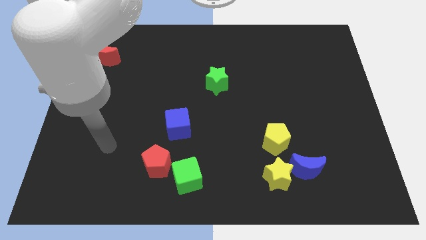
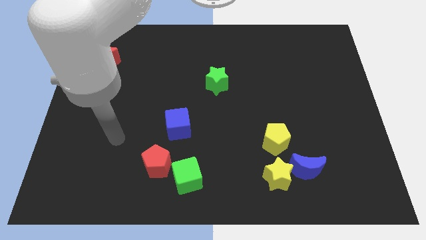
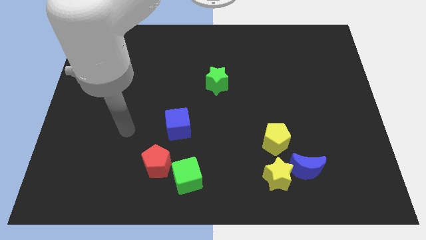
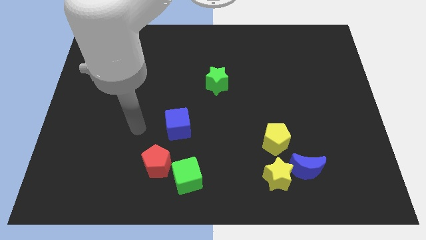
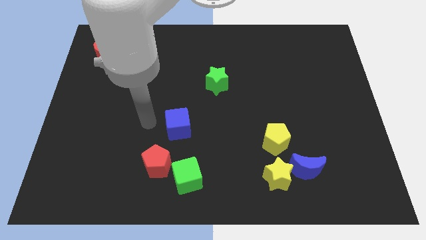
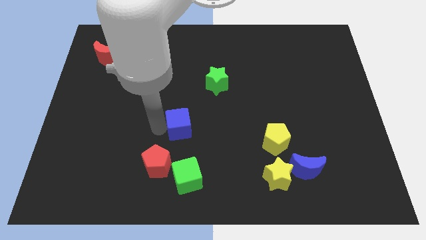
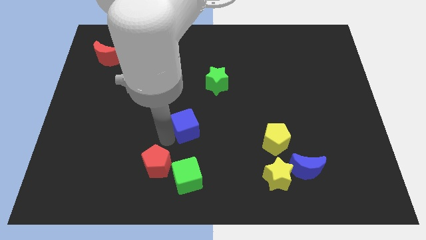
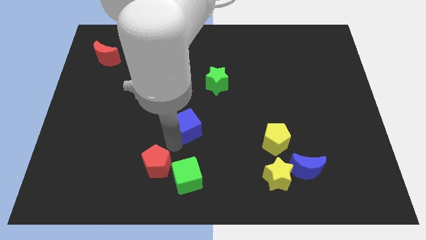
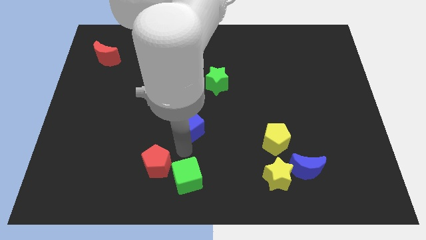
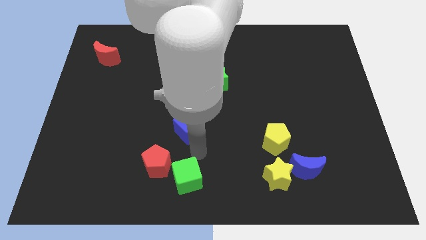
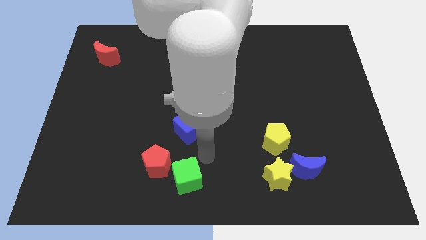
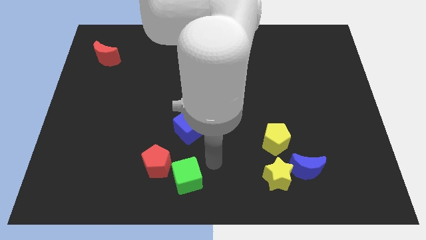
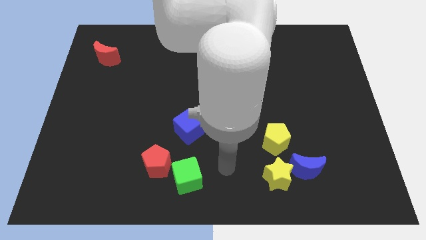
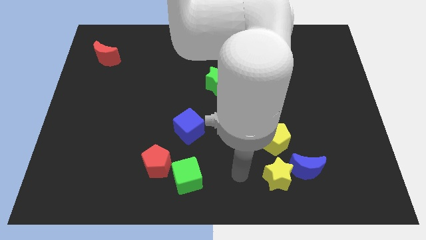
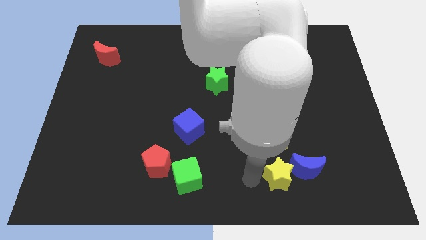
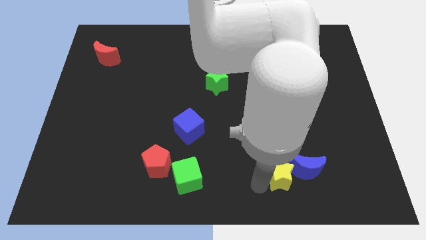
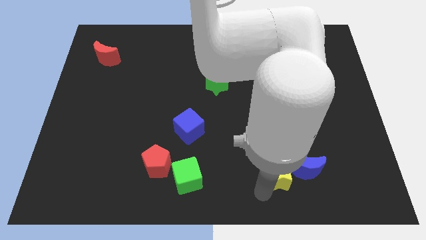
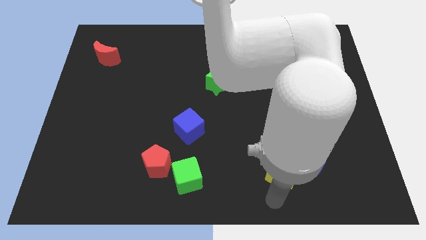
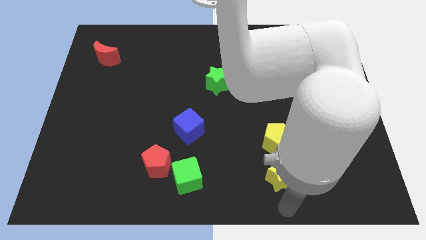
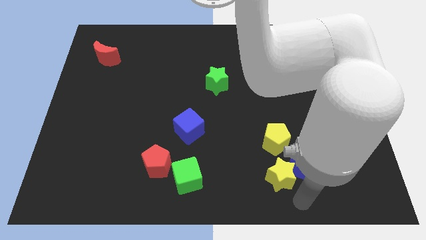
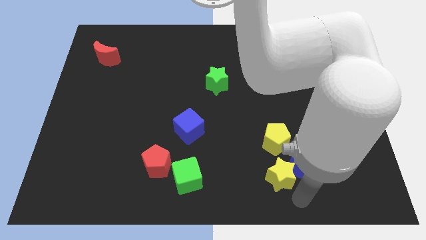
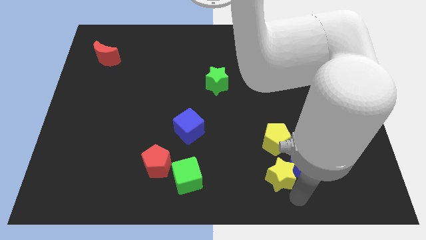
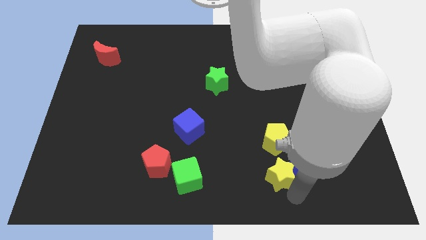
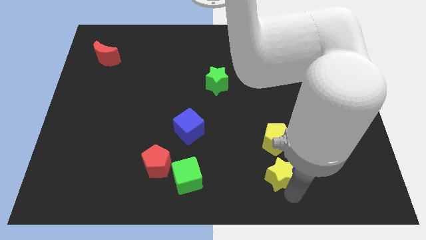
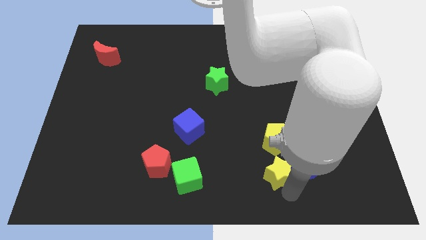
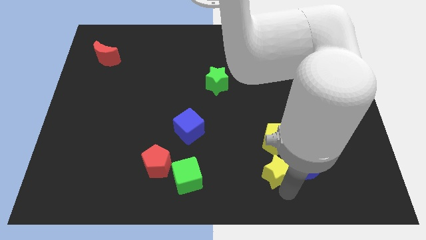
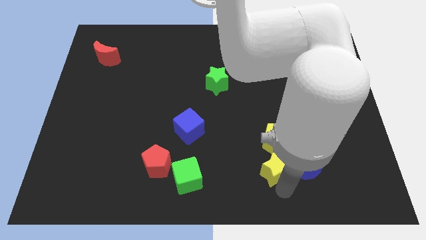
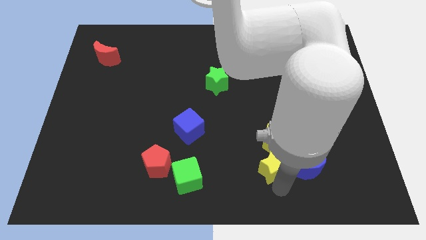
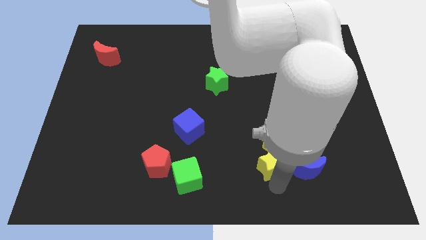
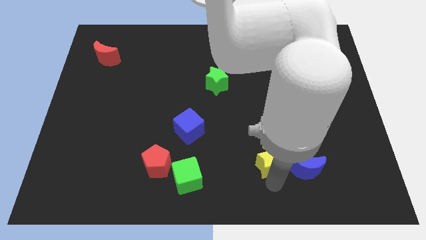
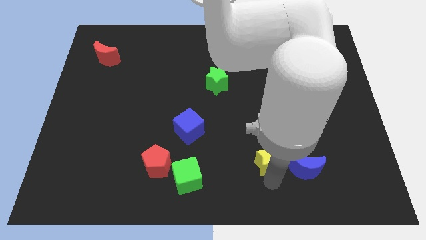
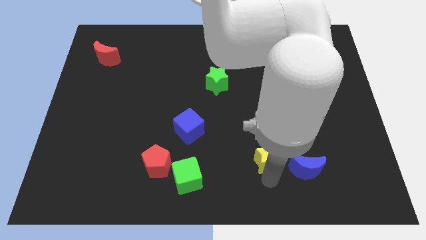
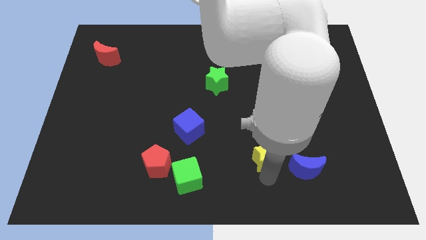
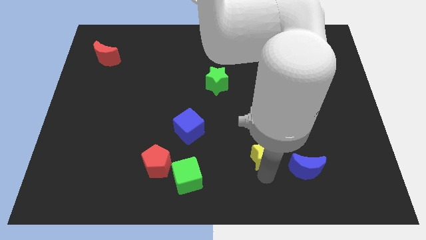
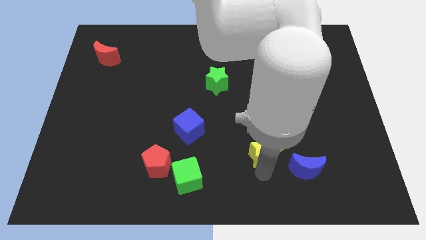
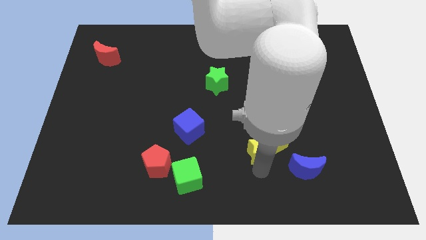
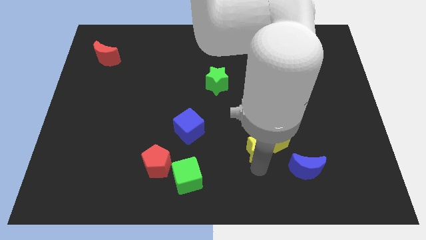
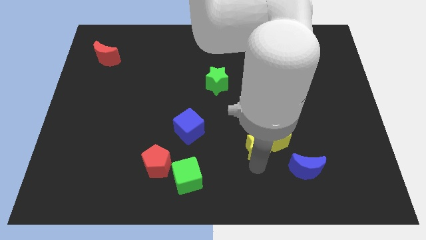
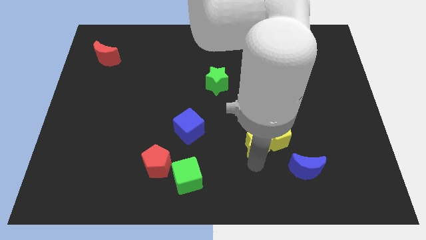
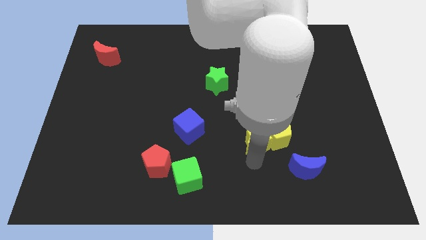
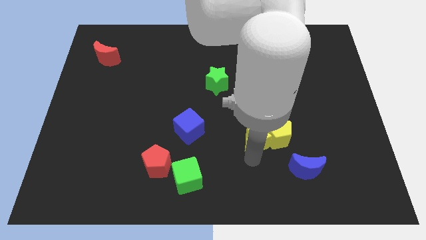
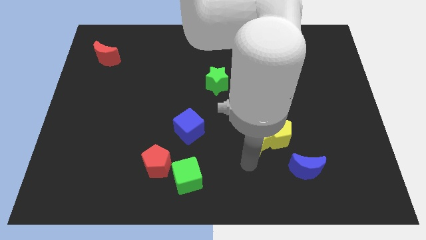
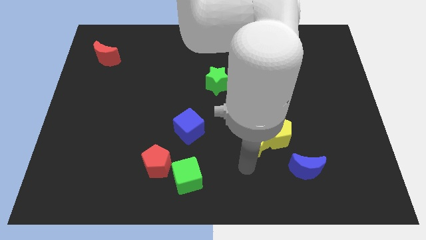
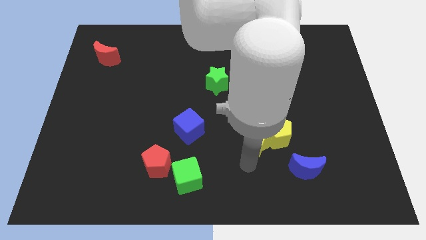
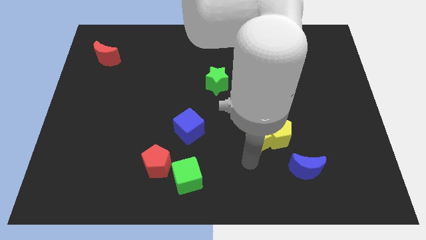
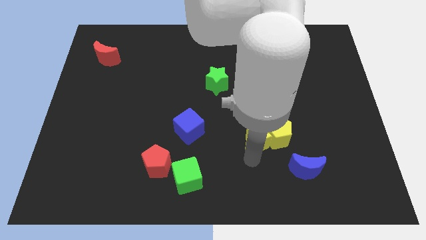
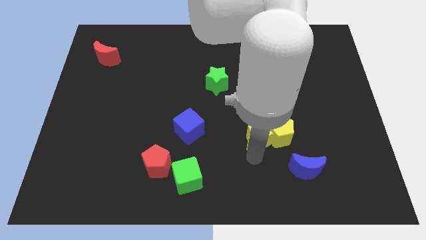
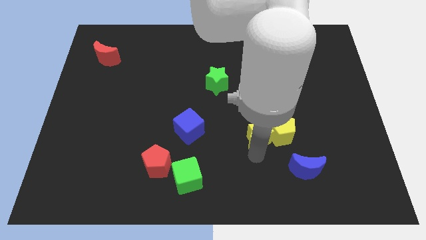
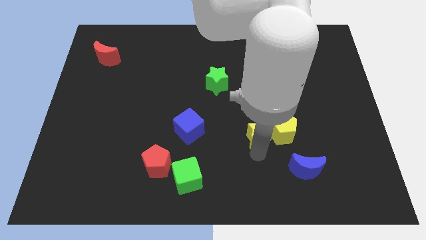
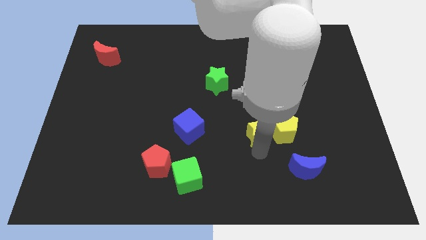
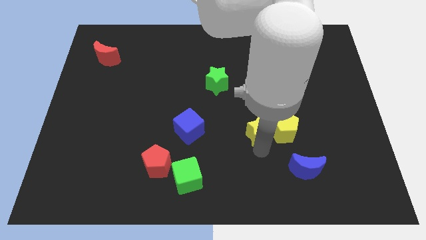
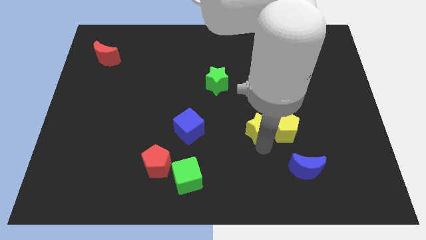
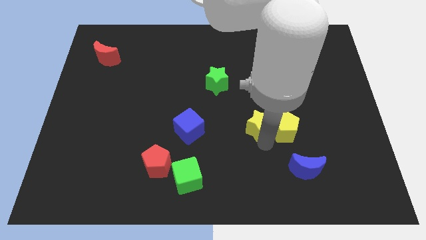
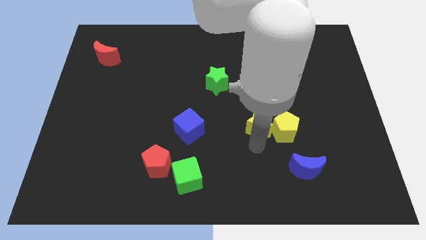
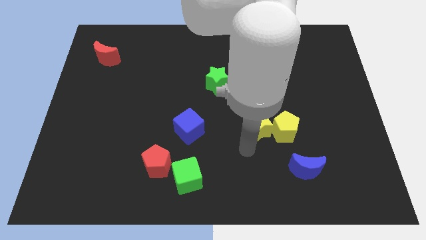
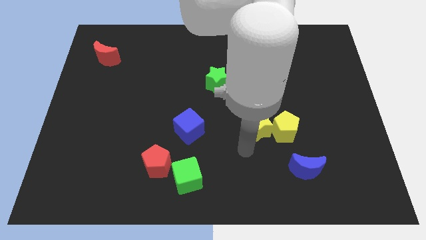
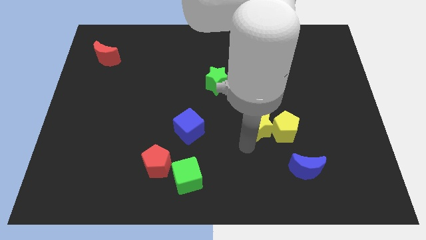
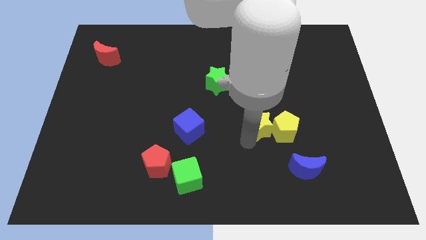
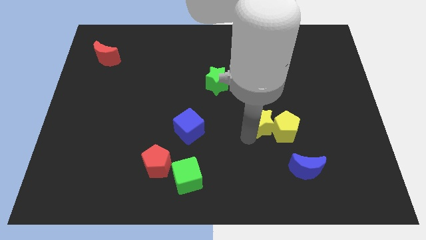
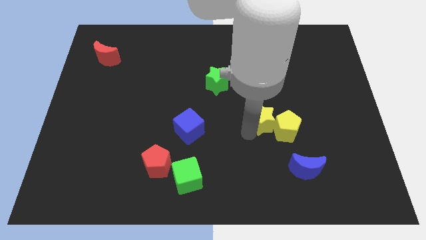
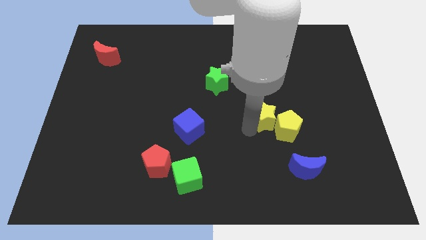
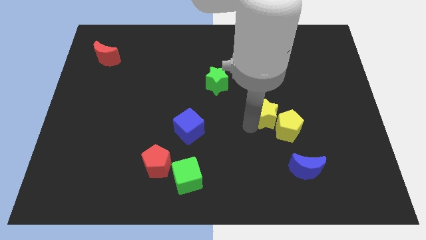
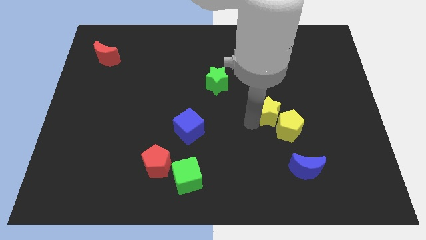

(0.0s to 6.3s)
slide the yellow star to the top of the yellow pentagon

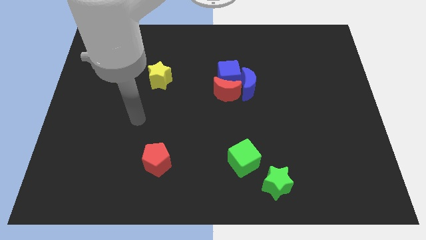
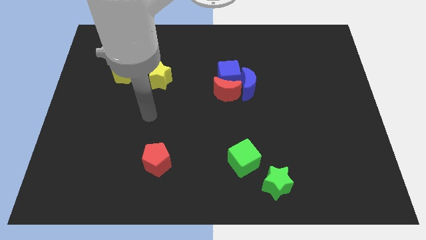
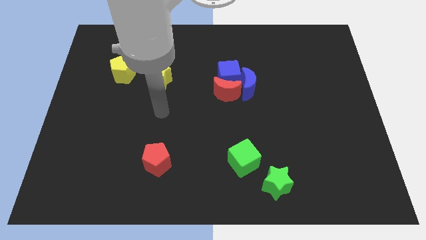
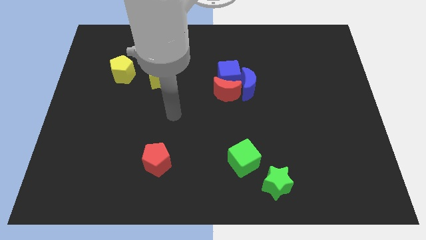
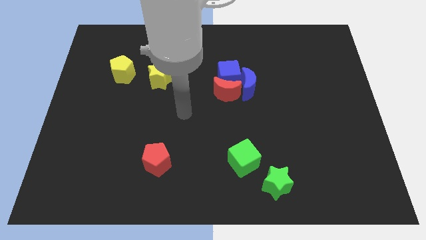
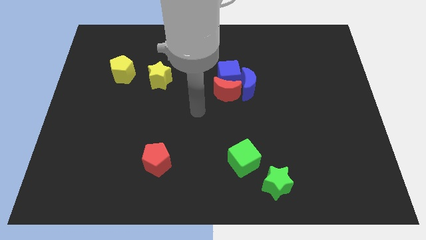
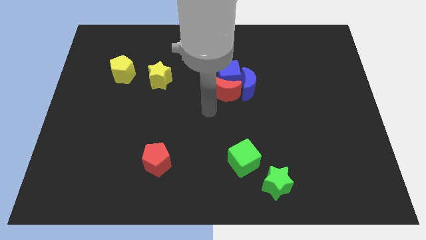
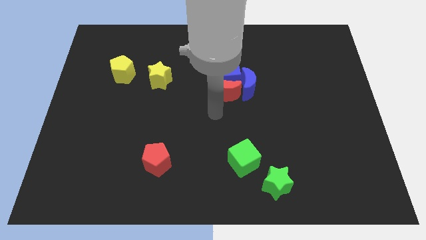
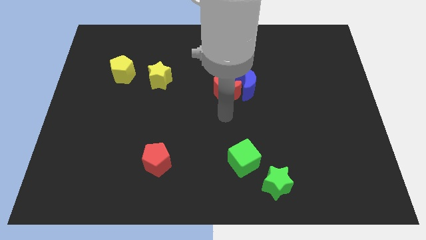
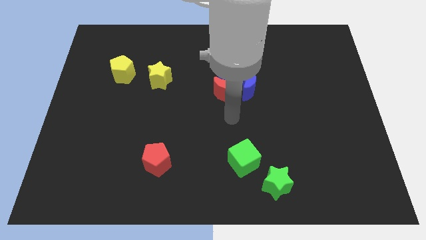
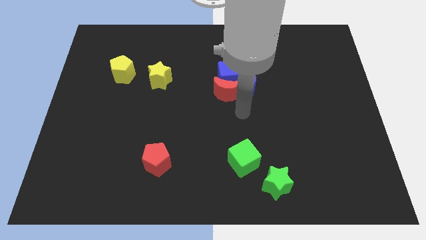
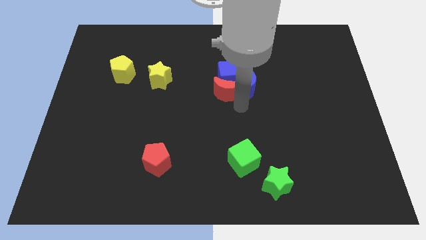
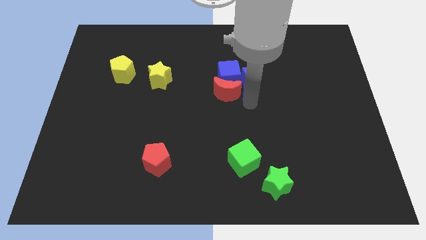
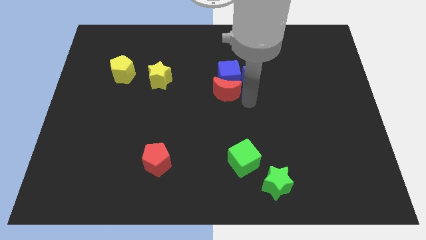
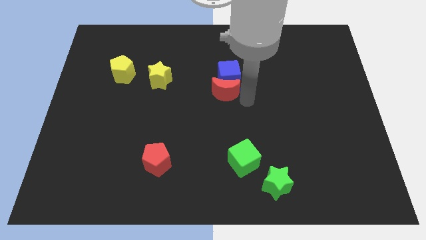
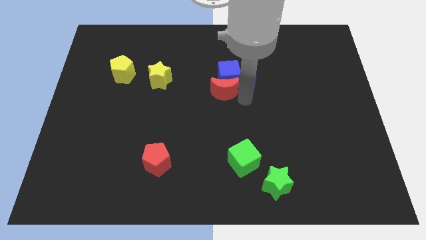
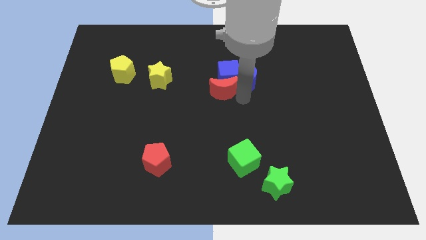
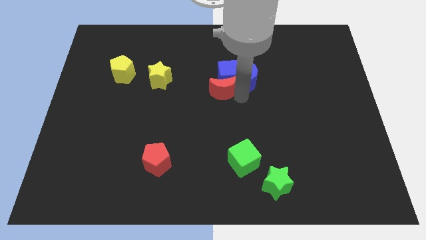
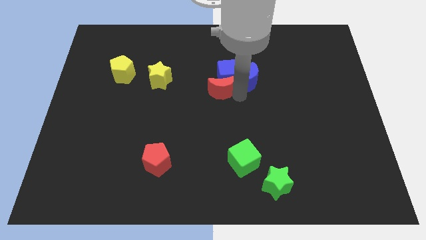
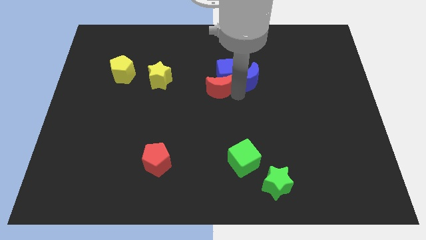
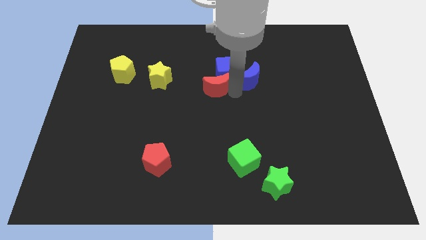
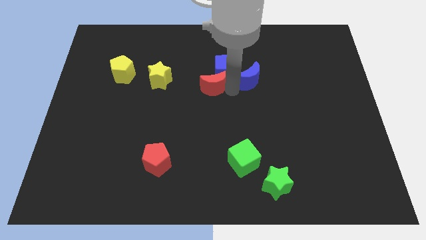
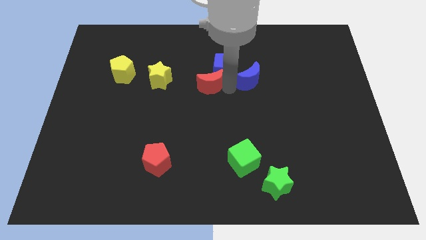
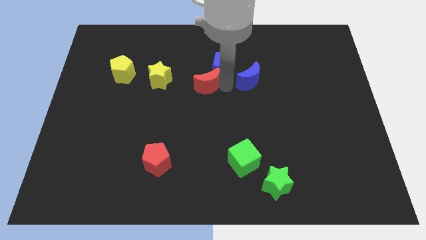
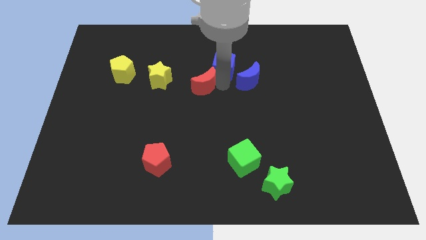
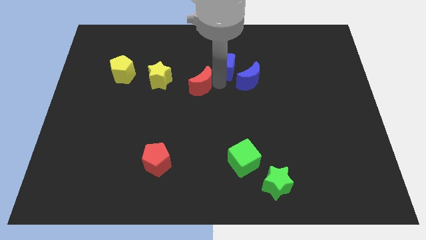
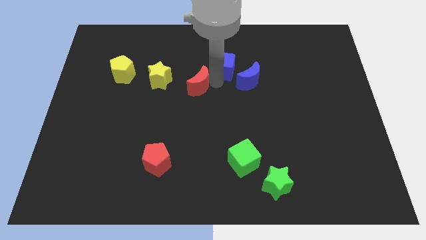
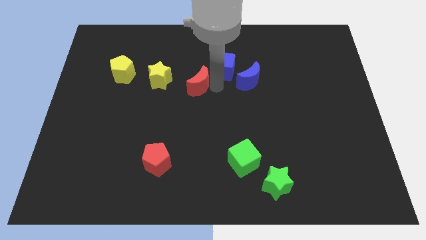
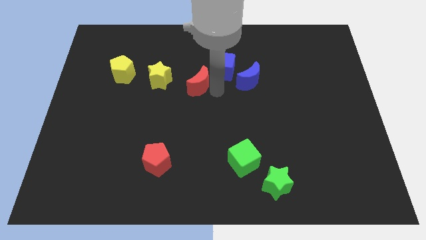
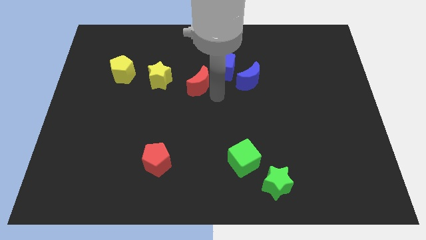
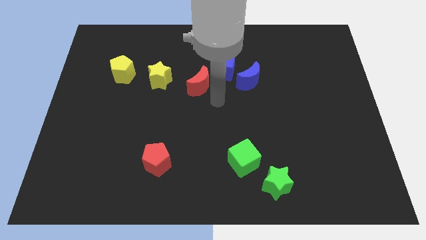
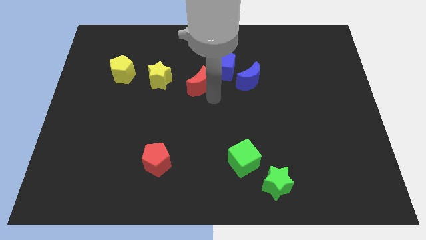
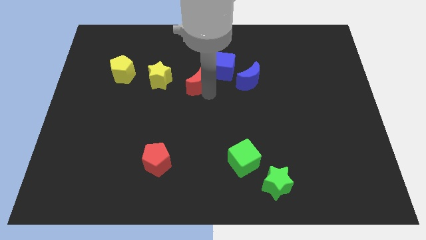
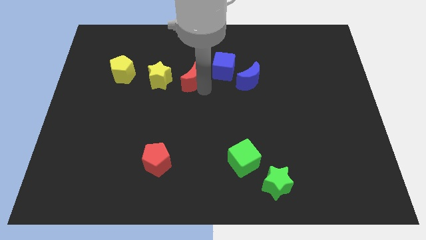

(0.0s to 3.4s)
put the red moon left of the blue cube
